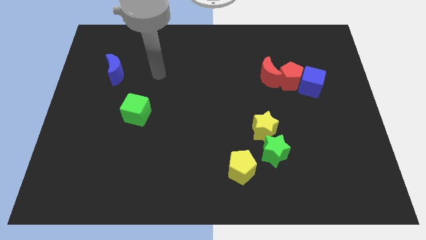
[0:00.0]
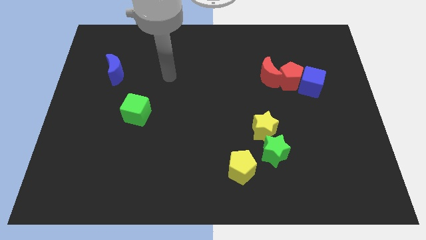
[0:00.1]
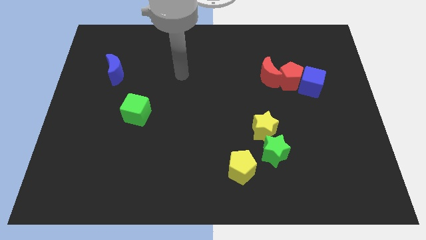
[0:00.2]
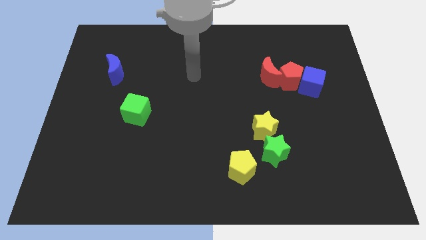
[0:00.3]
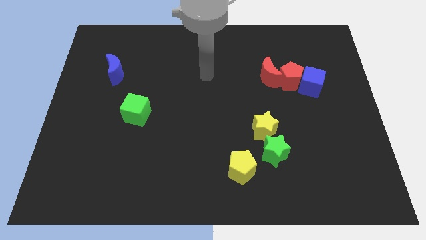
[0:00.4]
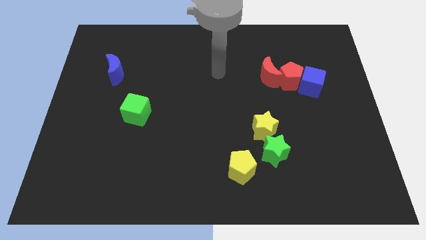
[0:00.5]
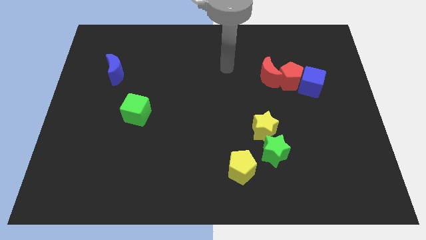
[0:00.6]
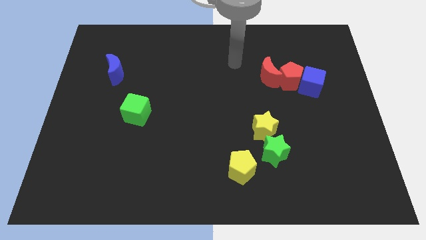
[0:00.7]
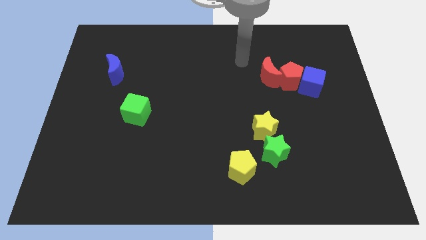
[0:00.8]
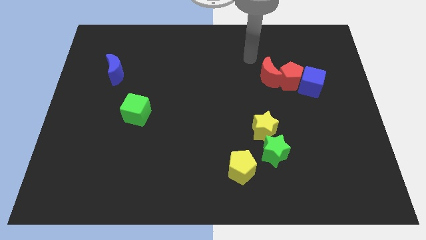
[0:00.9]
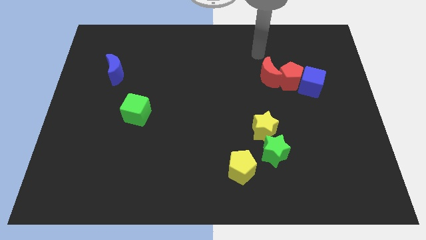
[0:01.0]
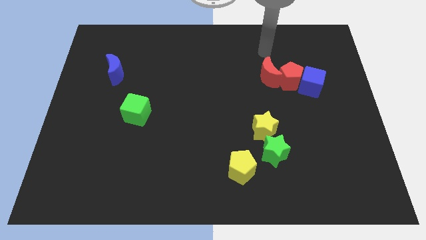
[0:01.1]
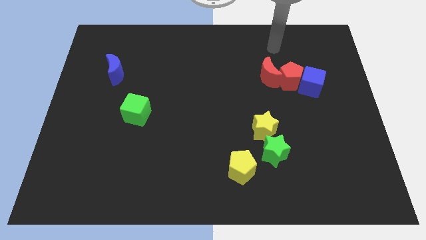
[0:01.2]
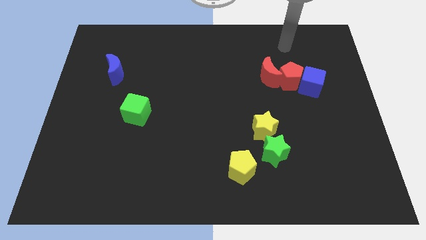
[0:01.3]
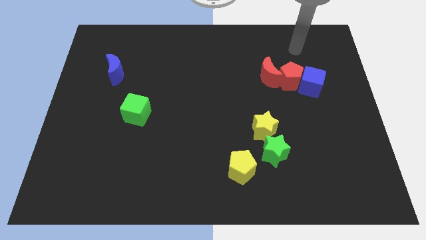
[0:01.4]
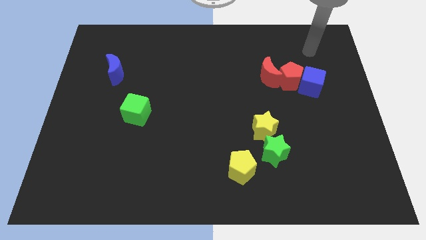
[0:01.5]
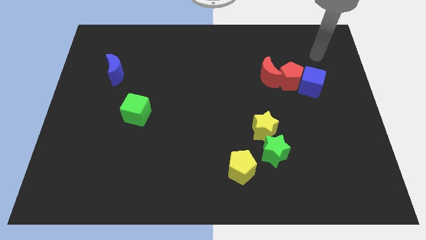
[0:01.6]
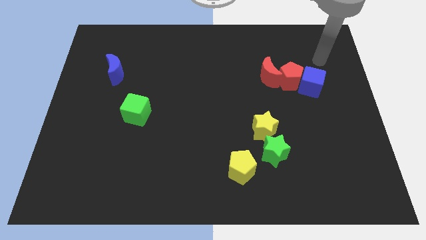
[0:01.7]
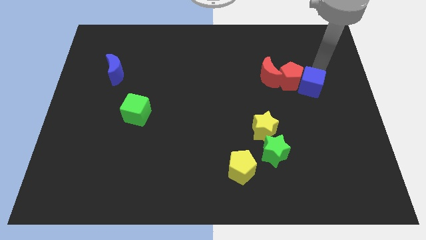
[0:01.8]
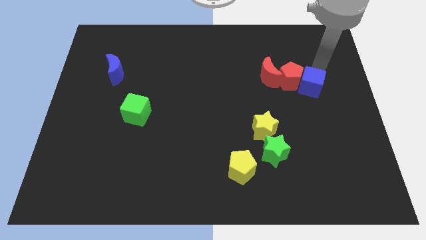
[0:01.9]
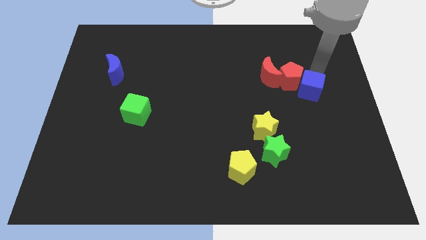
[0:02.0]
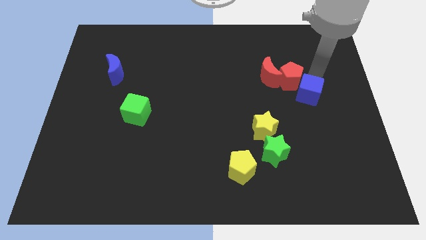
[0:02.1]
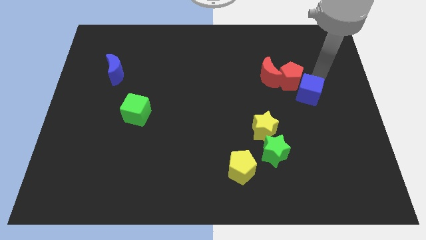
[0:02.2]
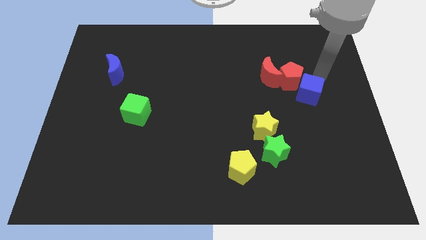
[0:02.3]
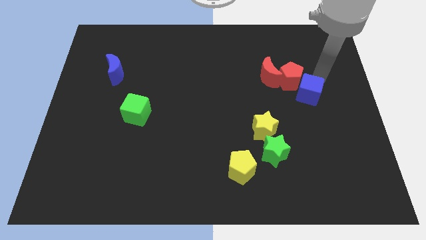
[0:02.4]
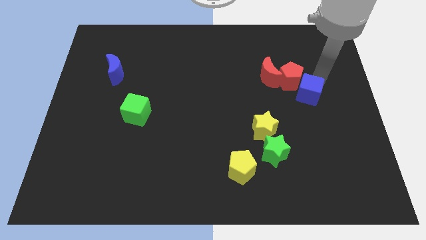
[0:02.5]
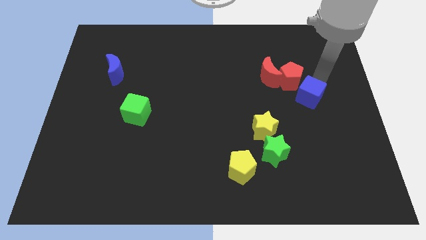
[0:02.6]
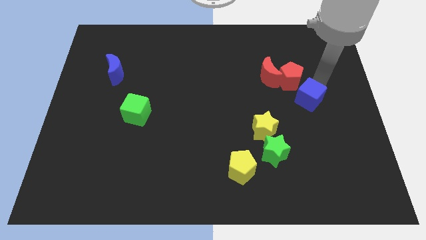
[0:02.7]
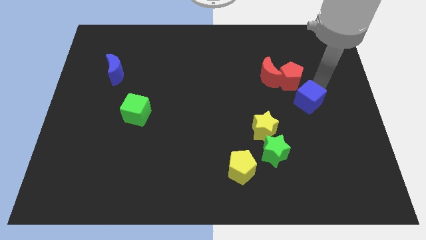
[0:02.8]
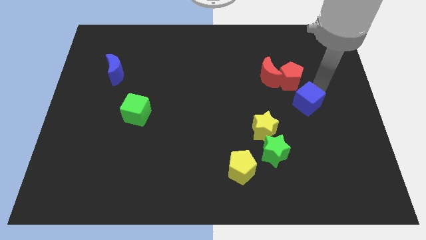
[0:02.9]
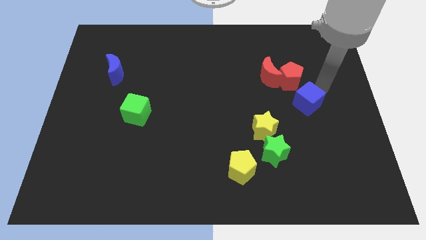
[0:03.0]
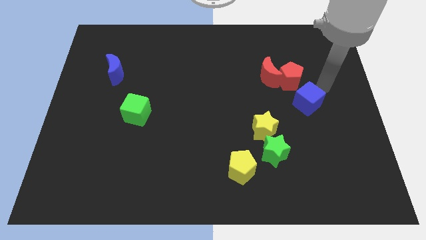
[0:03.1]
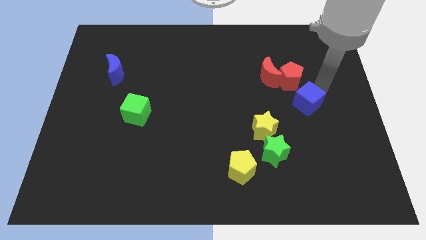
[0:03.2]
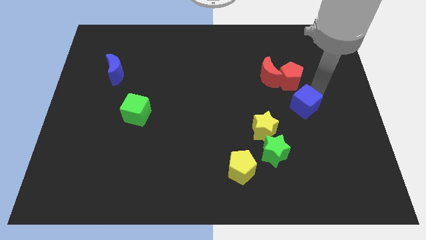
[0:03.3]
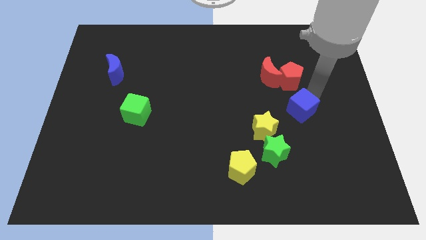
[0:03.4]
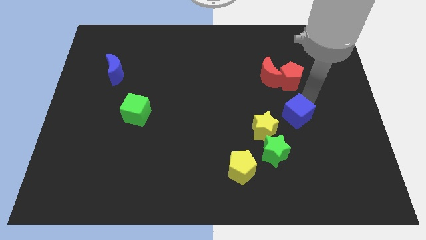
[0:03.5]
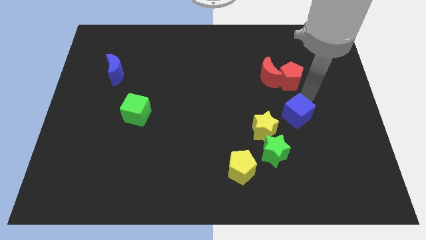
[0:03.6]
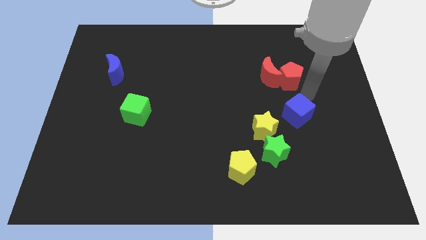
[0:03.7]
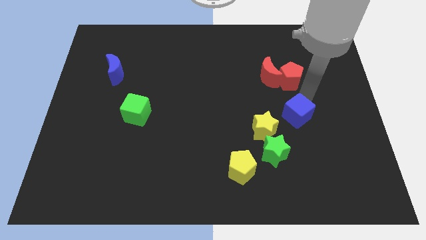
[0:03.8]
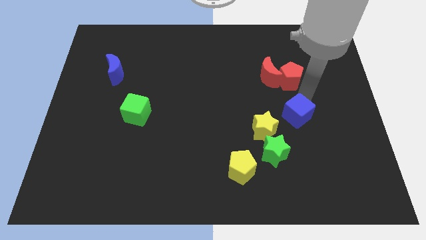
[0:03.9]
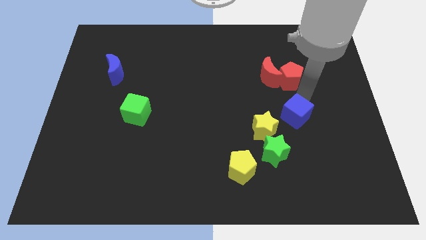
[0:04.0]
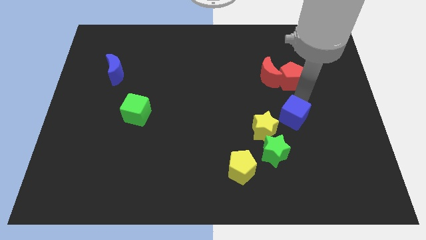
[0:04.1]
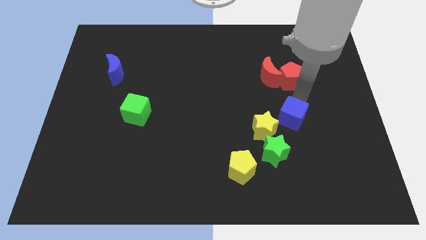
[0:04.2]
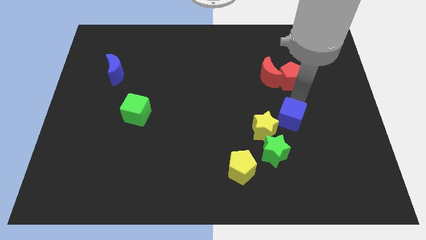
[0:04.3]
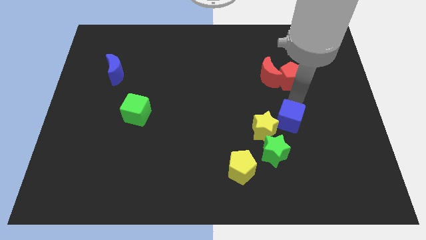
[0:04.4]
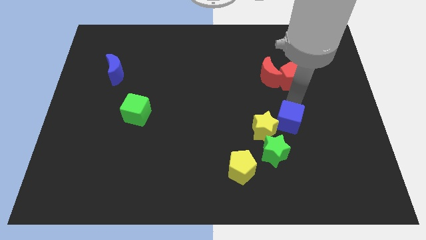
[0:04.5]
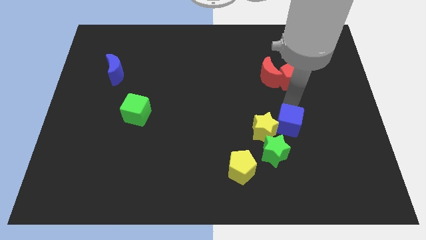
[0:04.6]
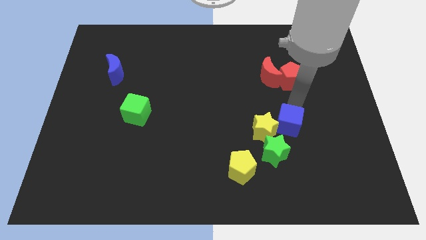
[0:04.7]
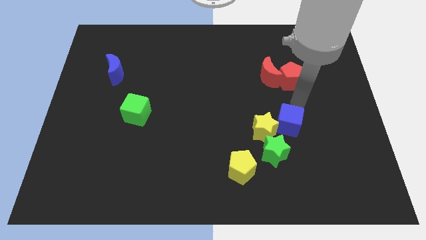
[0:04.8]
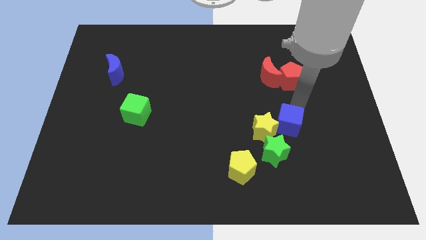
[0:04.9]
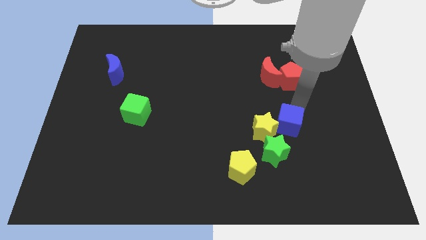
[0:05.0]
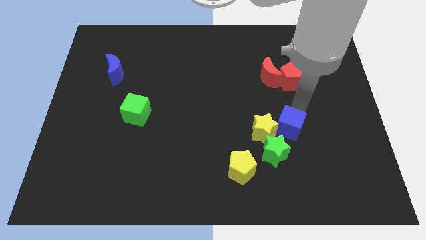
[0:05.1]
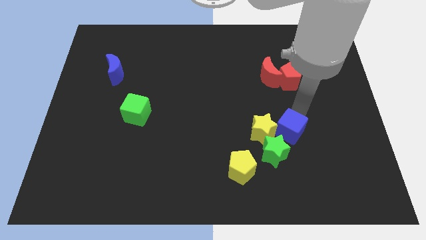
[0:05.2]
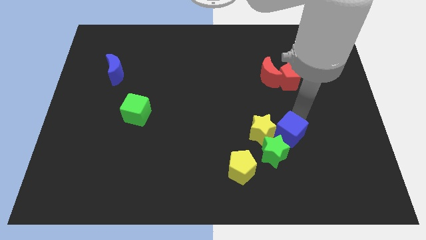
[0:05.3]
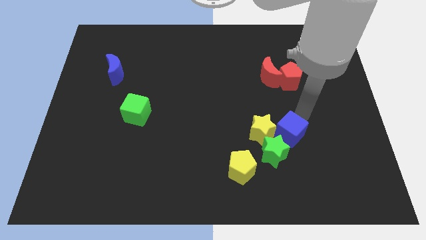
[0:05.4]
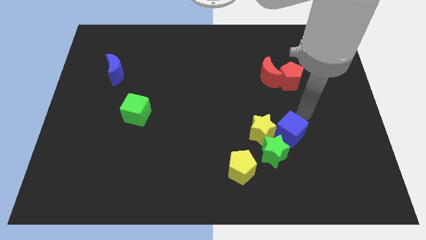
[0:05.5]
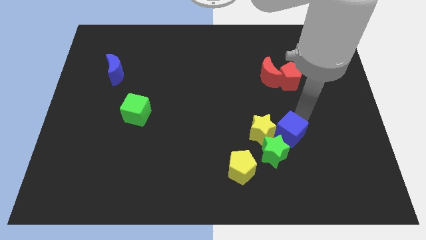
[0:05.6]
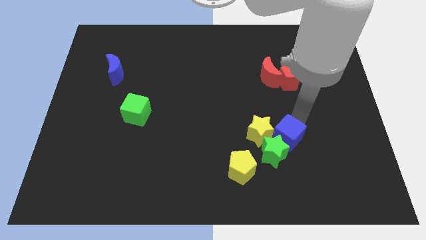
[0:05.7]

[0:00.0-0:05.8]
put the blue cube to the green star

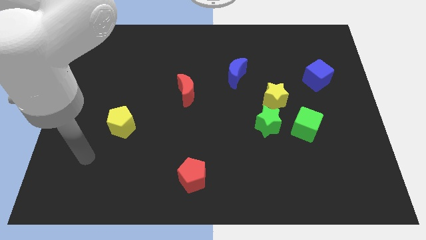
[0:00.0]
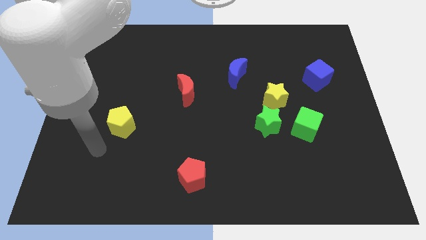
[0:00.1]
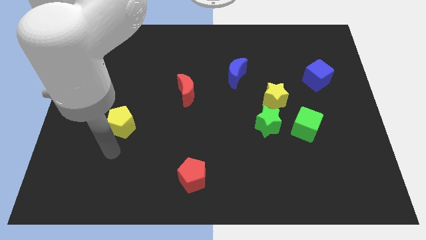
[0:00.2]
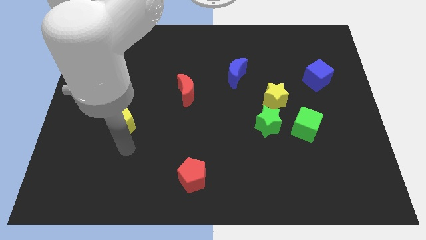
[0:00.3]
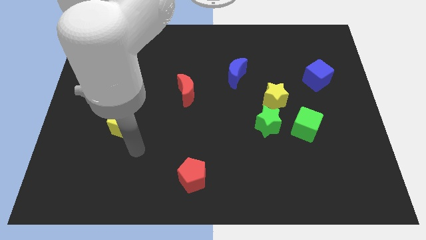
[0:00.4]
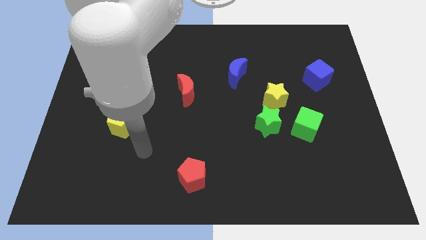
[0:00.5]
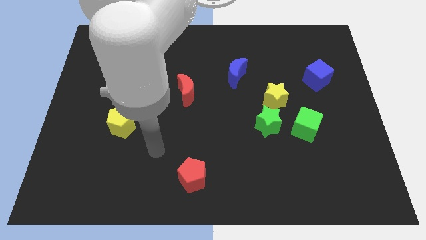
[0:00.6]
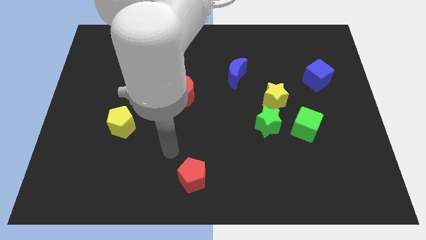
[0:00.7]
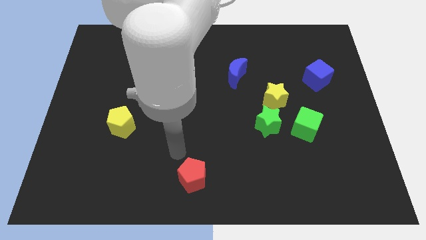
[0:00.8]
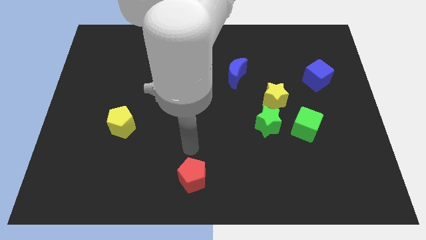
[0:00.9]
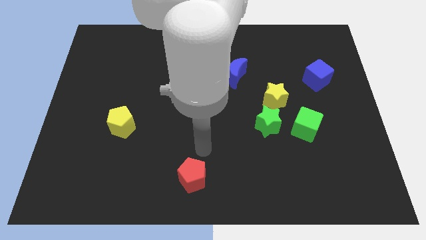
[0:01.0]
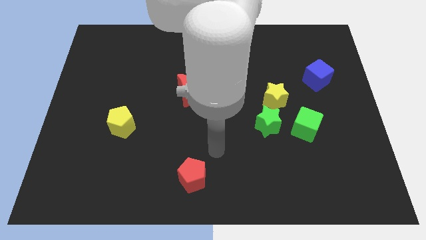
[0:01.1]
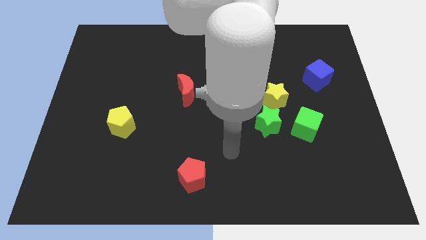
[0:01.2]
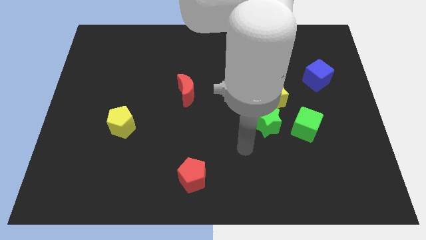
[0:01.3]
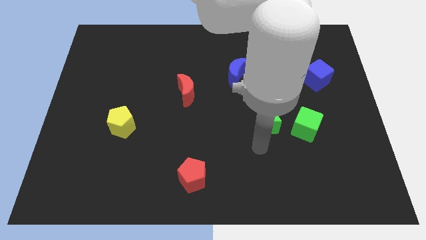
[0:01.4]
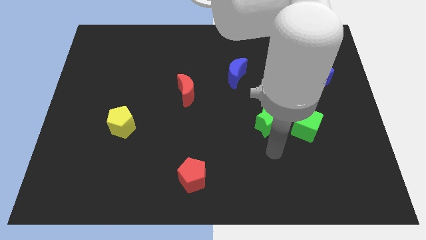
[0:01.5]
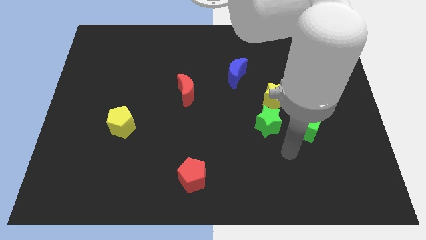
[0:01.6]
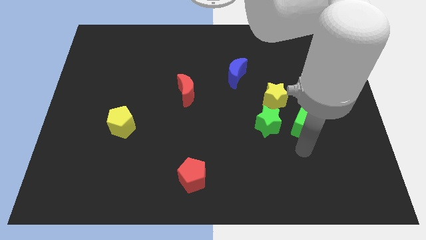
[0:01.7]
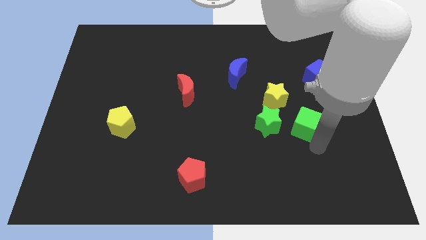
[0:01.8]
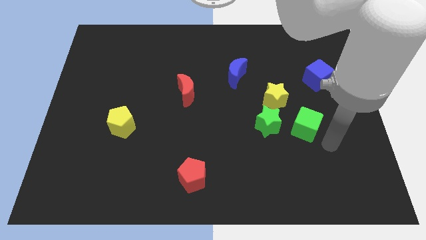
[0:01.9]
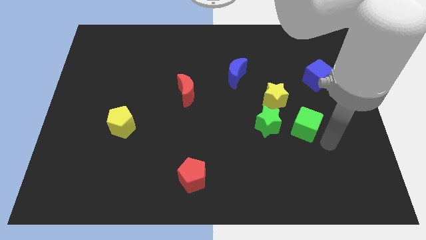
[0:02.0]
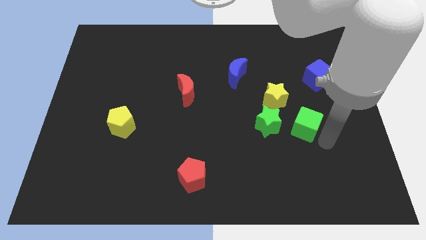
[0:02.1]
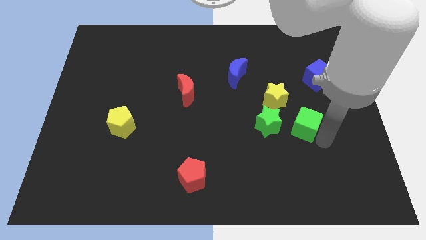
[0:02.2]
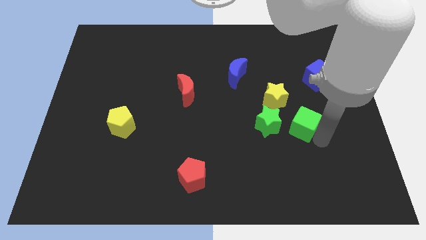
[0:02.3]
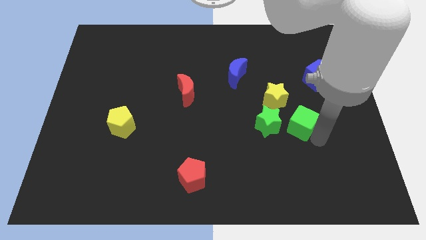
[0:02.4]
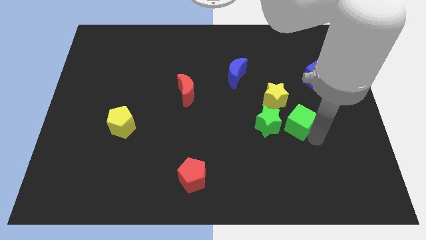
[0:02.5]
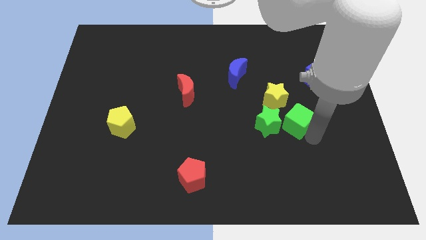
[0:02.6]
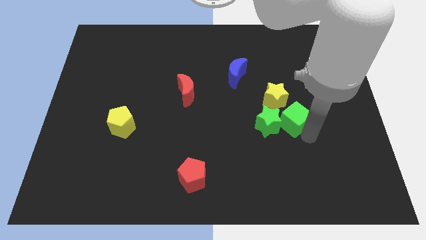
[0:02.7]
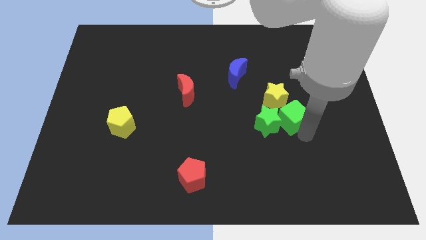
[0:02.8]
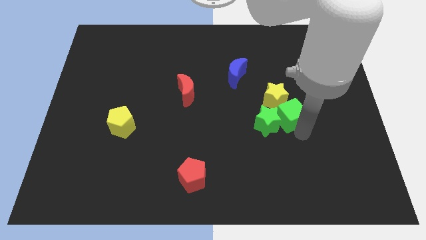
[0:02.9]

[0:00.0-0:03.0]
push the green cube to the yellow star
